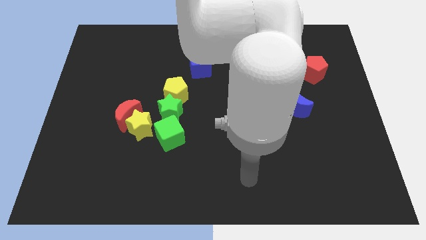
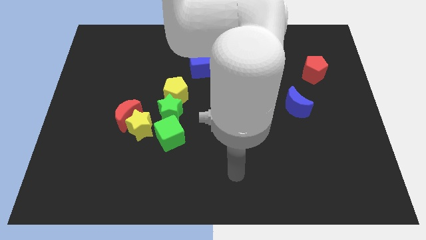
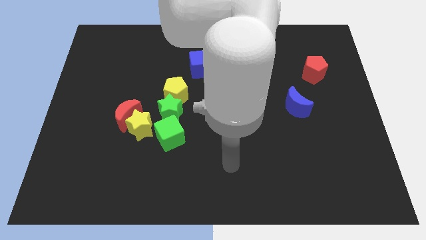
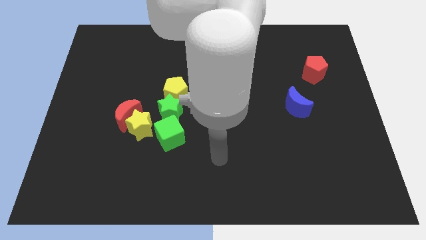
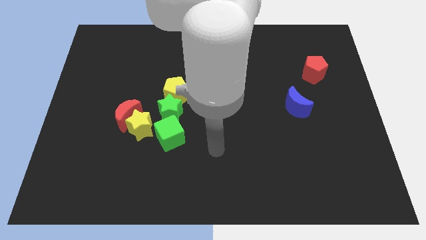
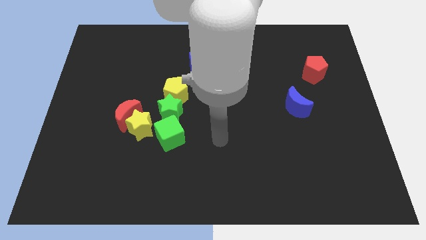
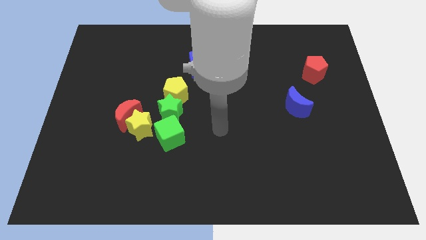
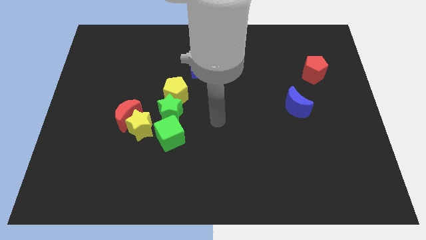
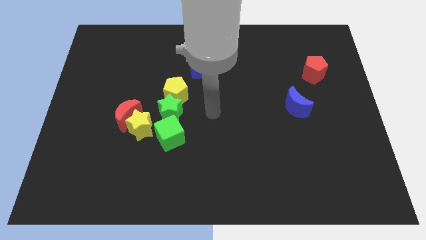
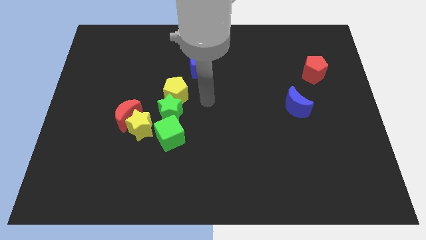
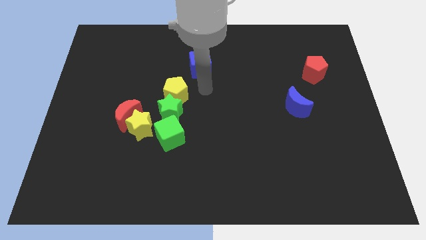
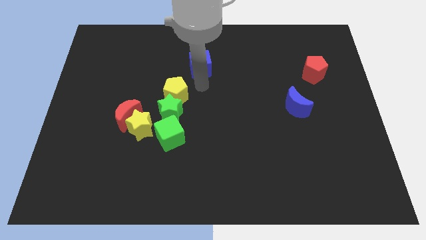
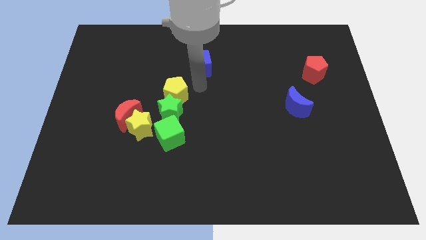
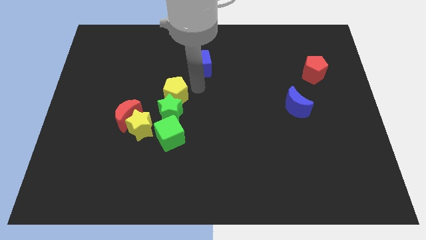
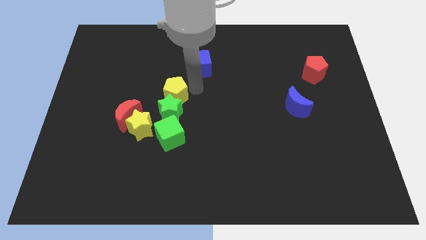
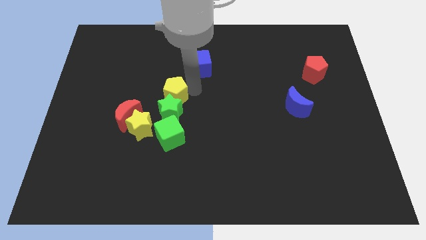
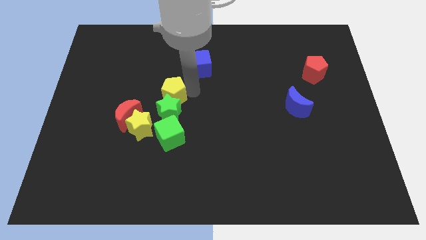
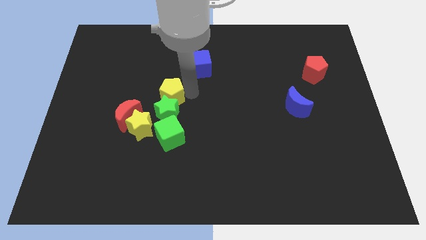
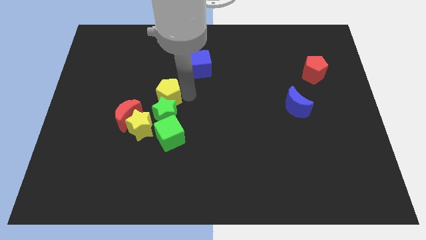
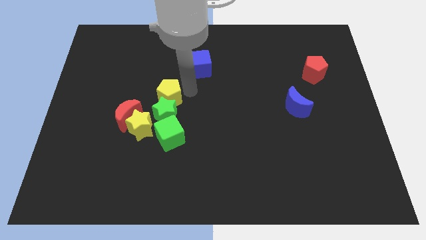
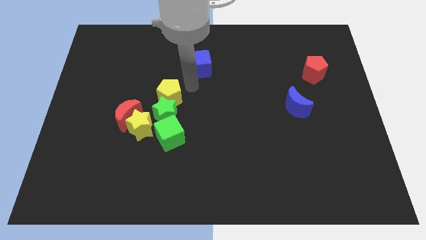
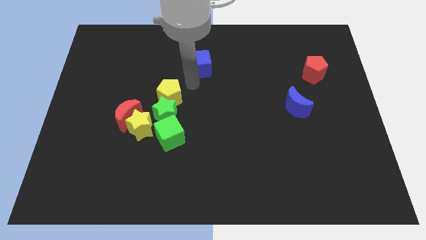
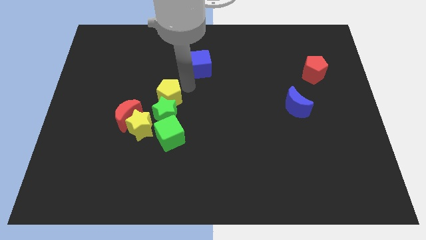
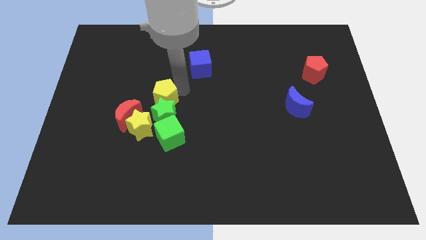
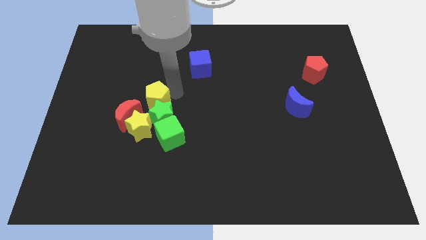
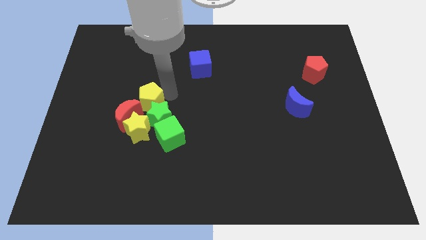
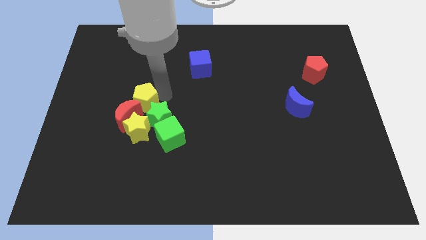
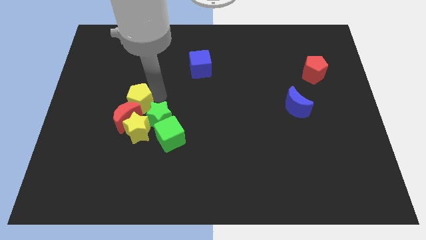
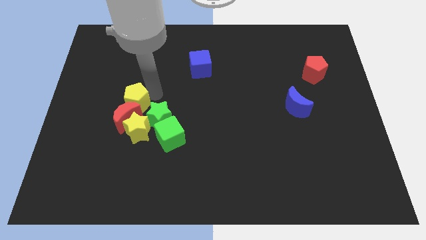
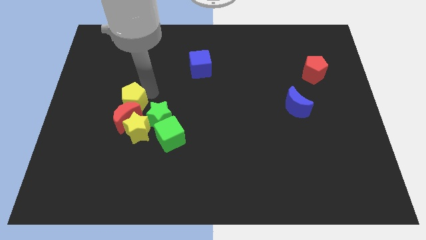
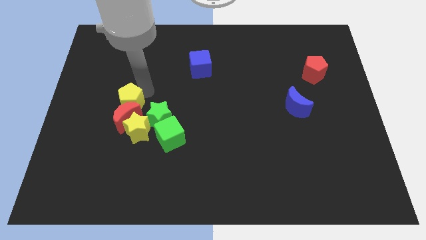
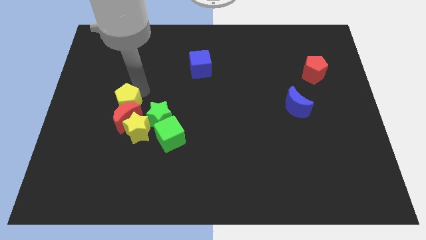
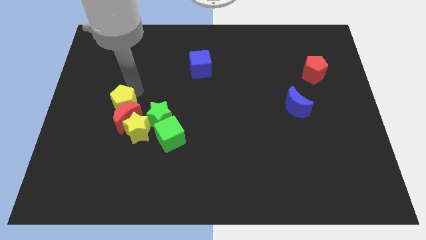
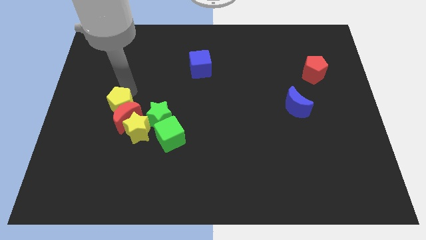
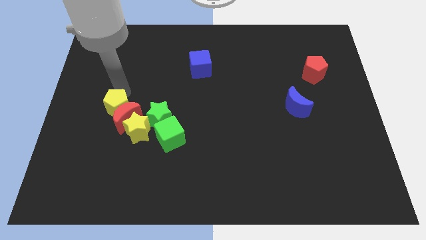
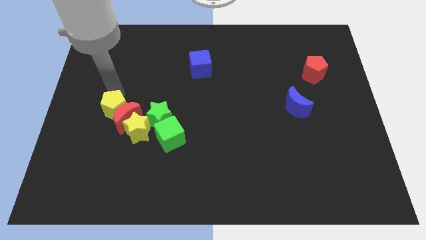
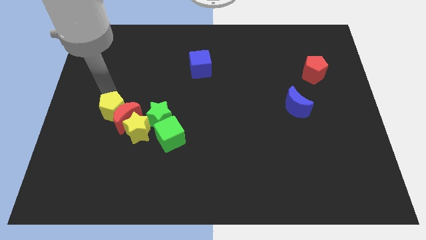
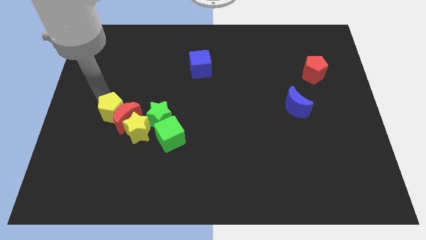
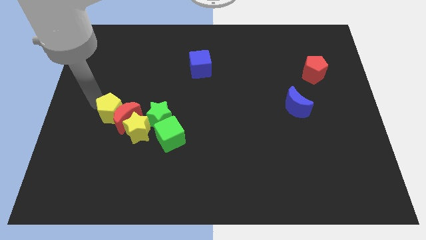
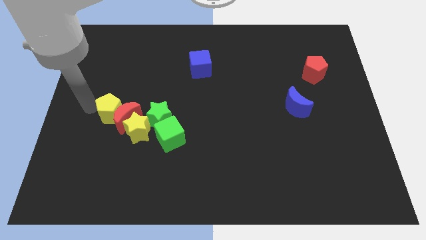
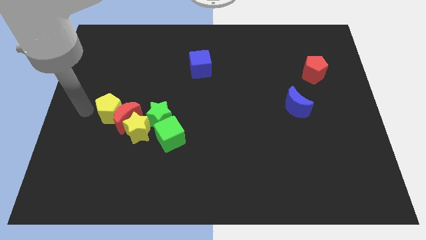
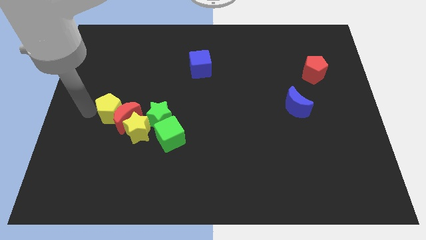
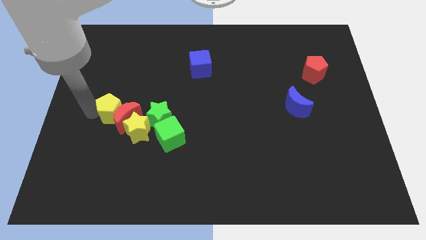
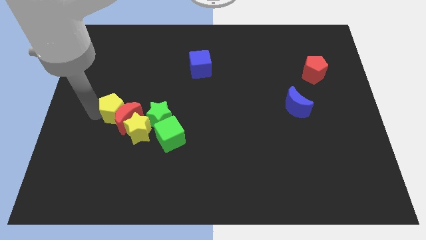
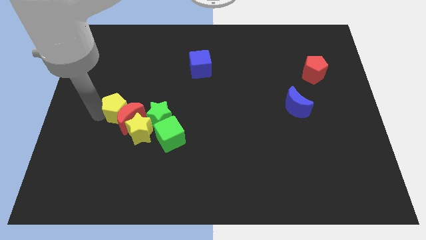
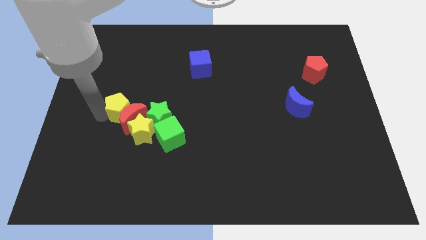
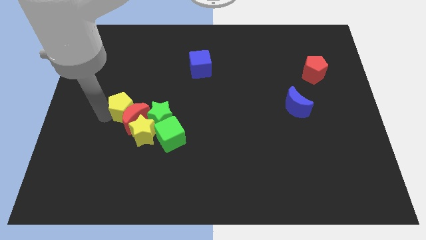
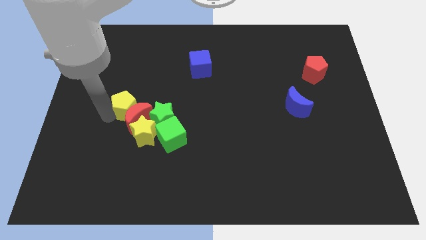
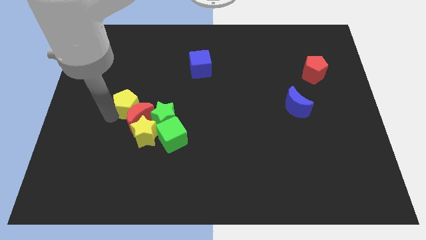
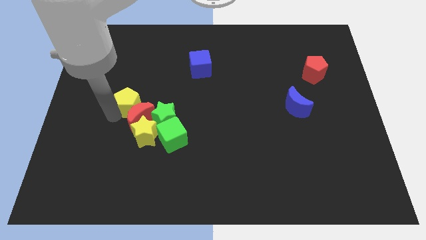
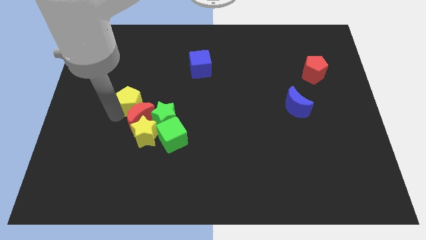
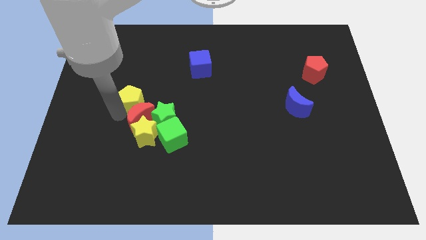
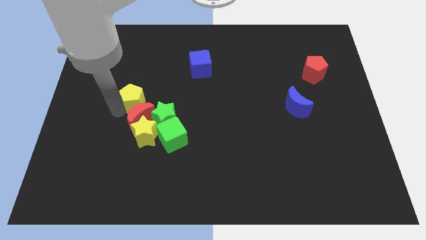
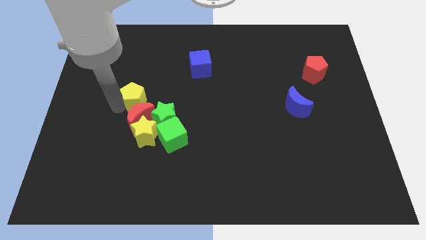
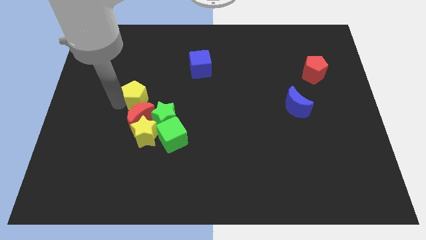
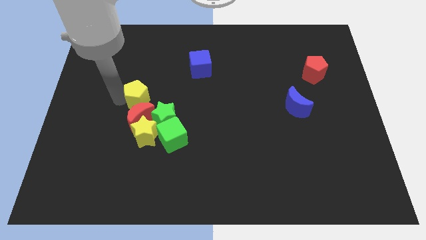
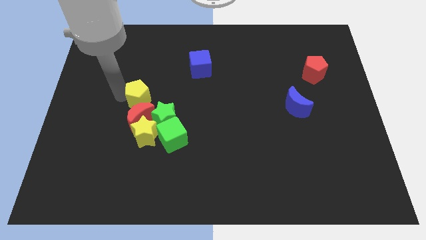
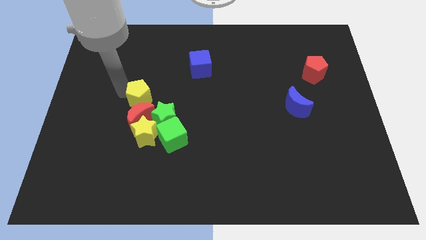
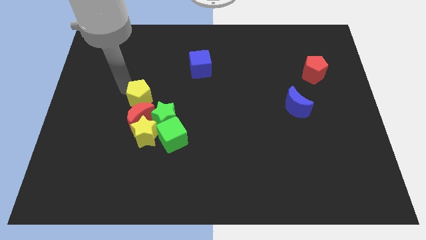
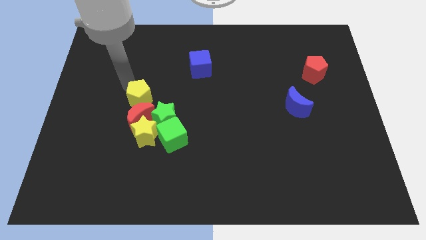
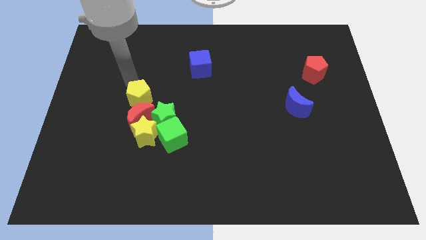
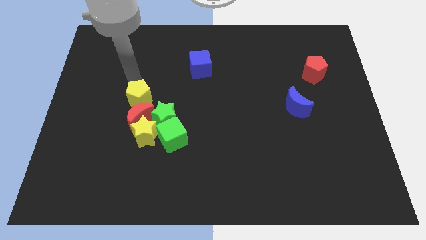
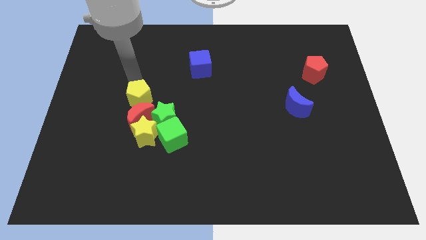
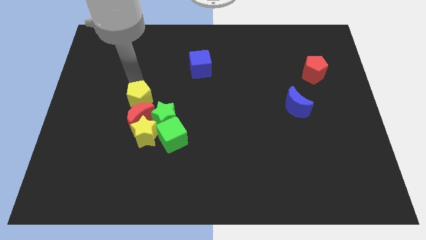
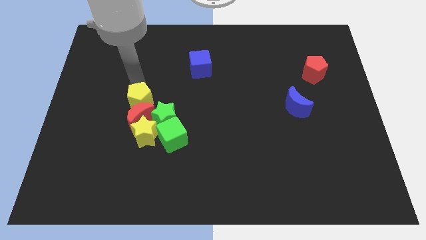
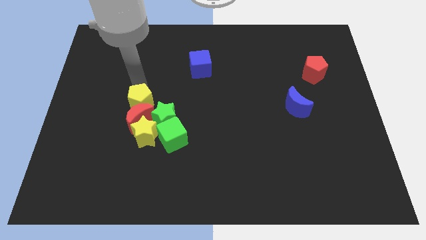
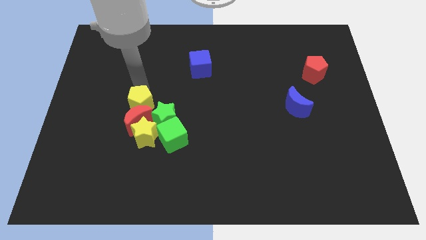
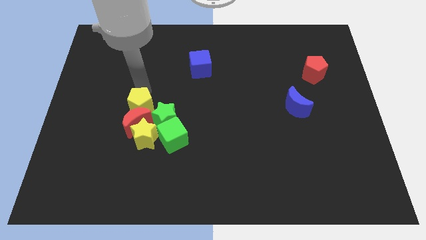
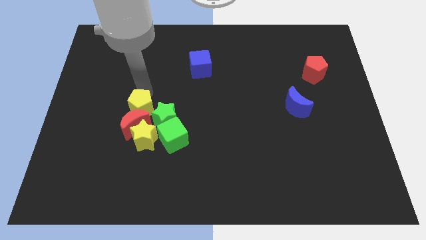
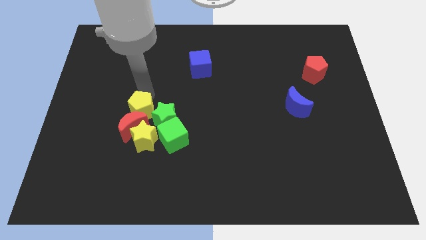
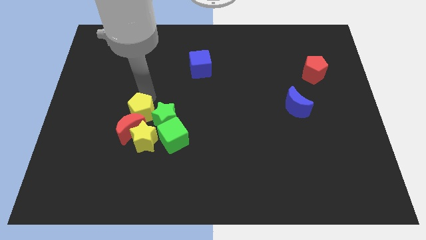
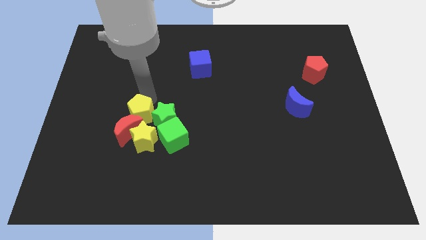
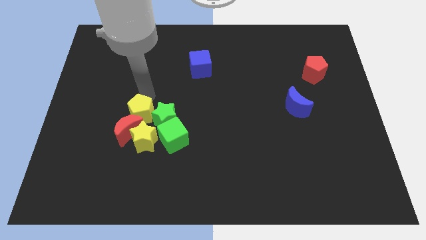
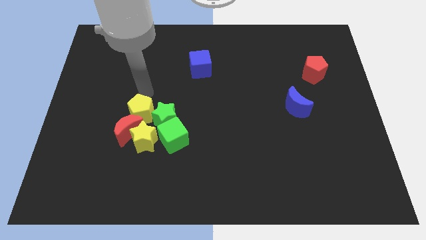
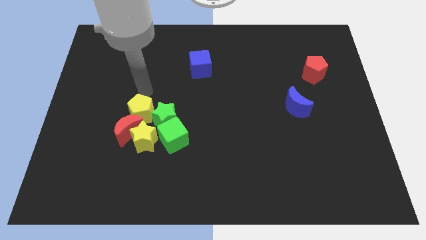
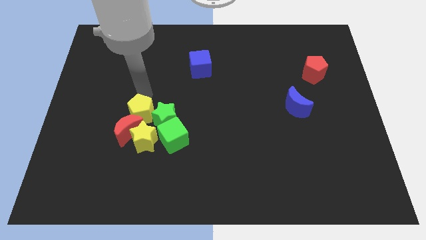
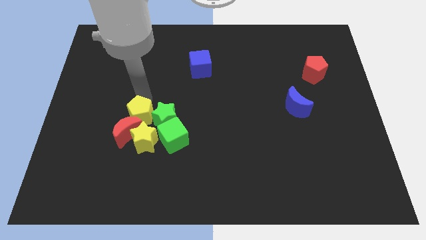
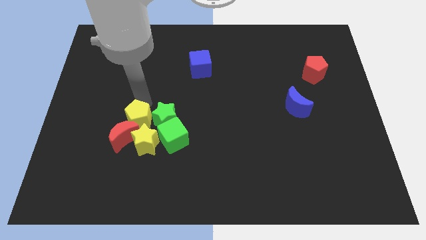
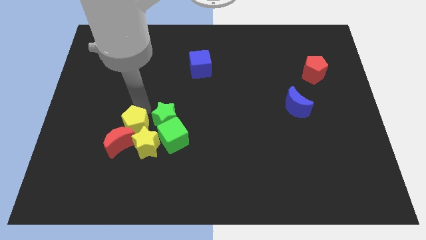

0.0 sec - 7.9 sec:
push the yellow pentagon next to the yellow star
